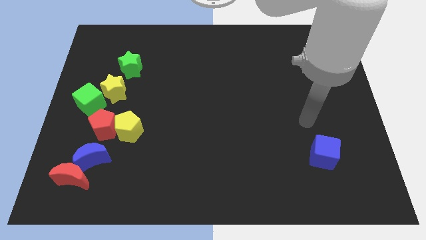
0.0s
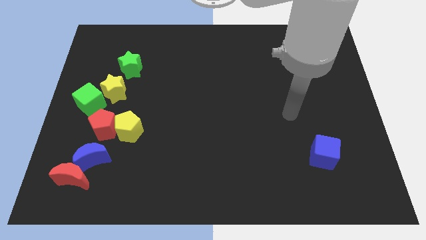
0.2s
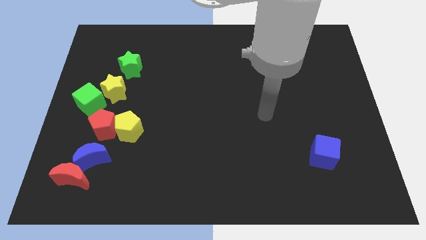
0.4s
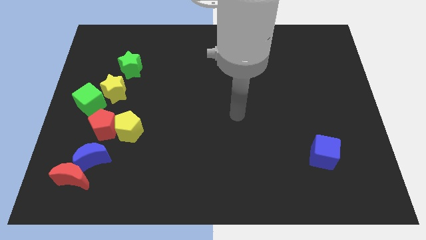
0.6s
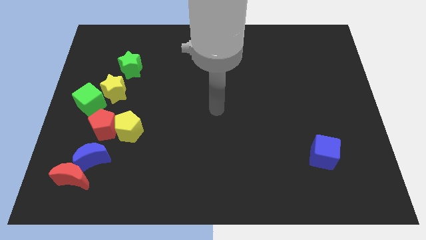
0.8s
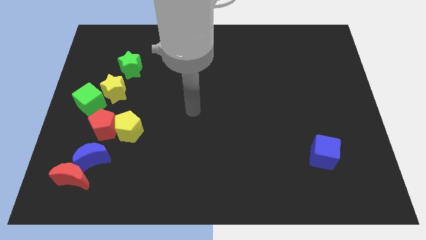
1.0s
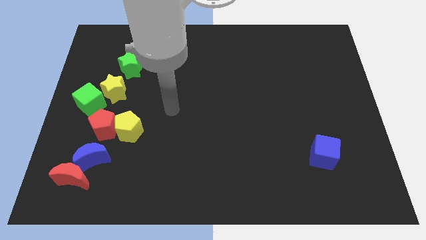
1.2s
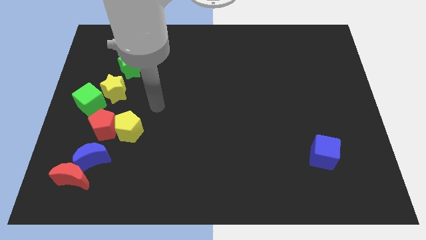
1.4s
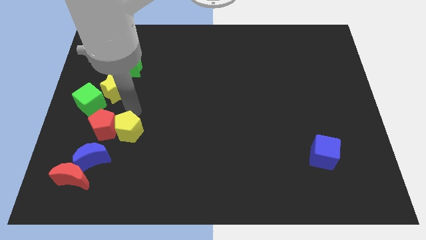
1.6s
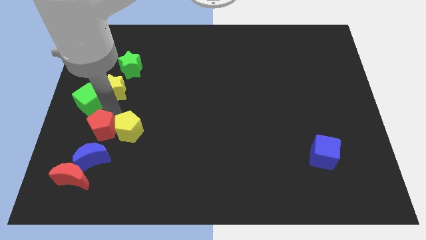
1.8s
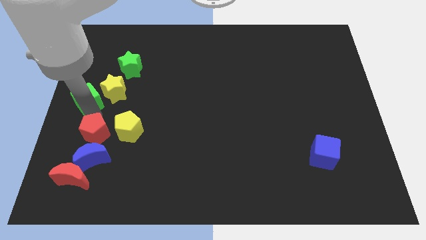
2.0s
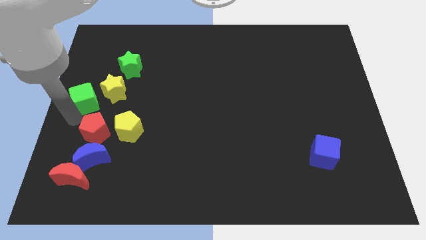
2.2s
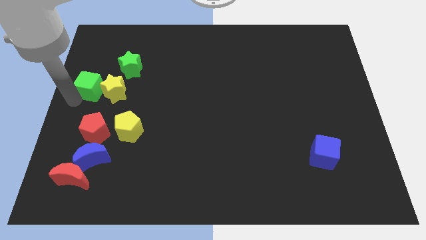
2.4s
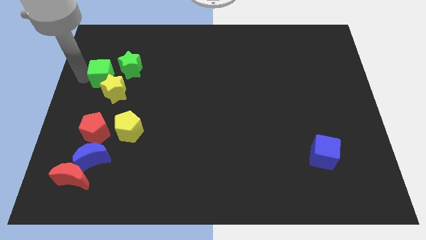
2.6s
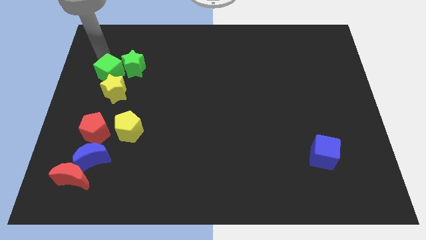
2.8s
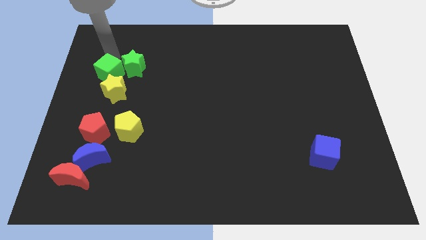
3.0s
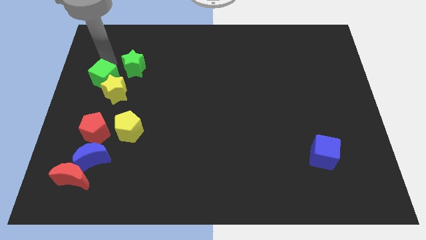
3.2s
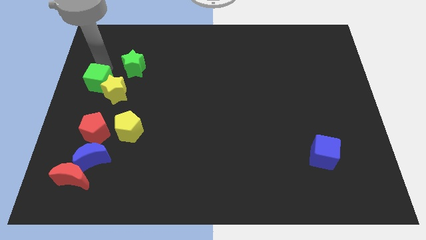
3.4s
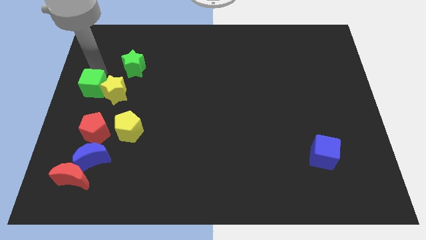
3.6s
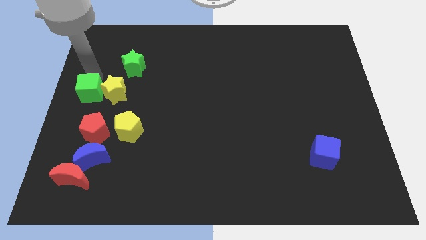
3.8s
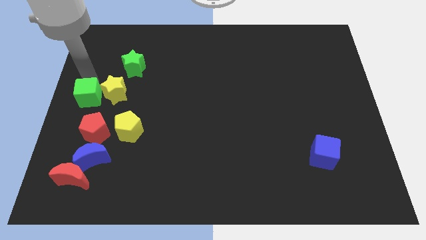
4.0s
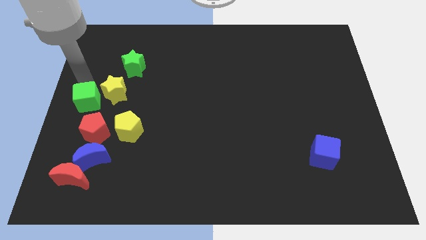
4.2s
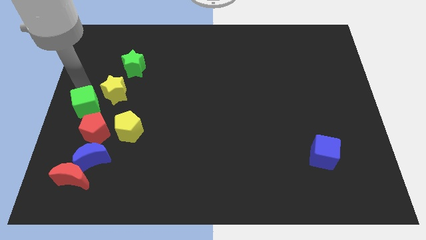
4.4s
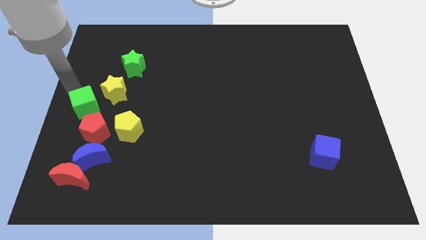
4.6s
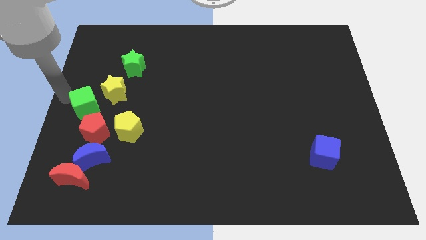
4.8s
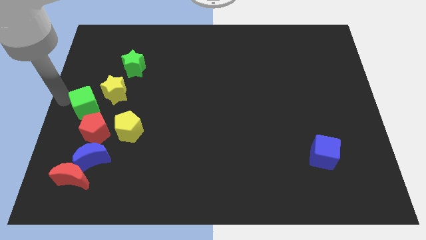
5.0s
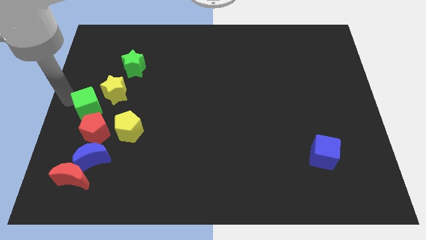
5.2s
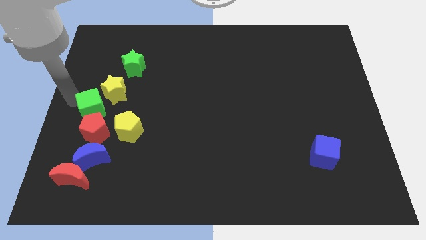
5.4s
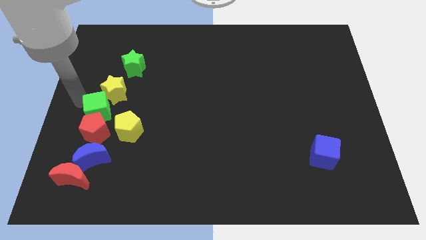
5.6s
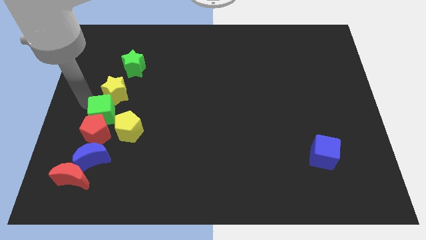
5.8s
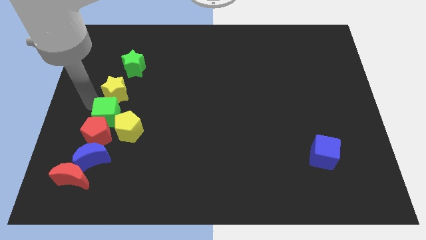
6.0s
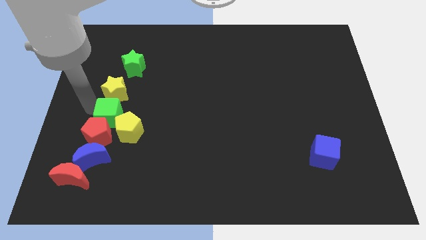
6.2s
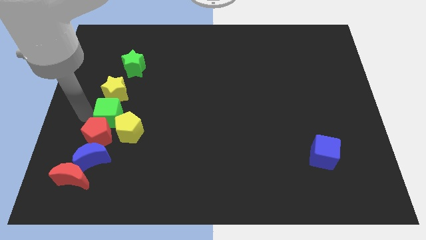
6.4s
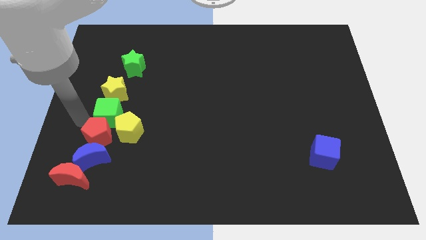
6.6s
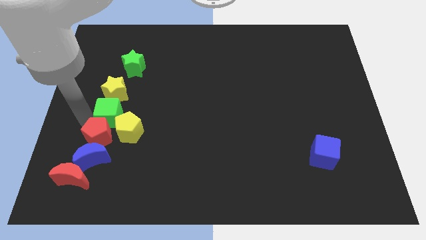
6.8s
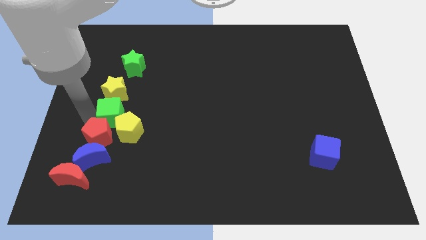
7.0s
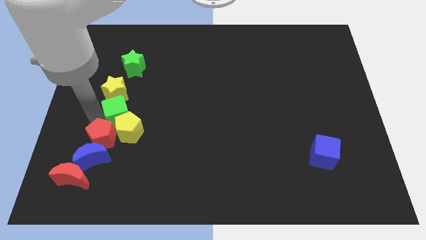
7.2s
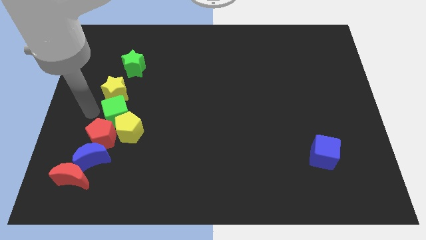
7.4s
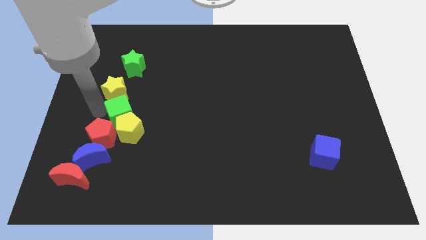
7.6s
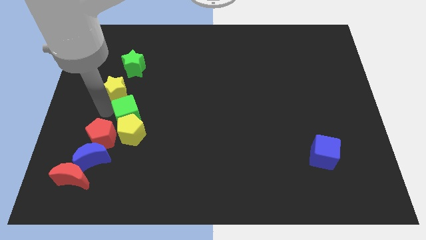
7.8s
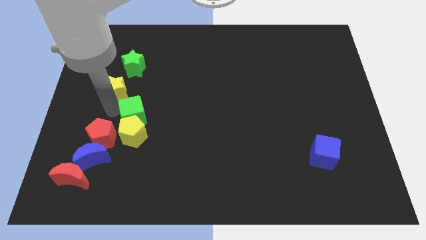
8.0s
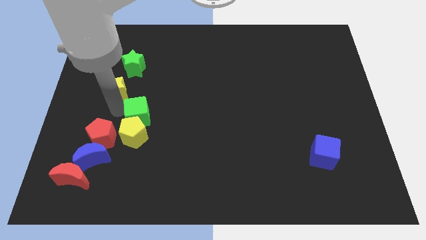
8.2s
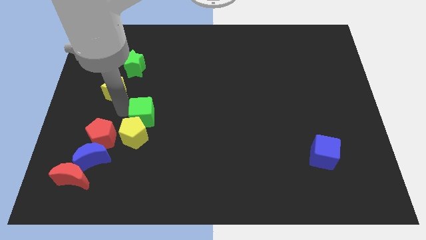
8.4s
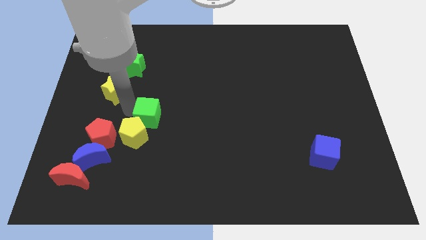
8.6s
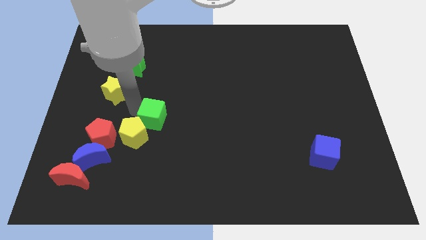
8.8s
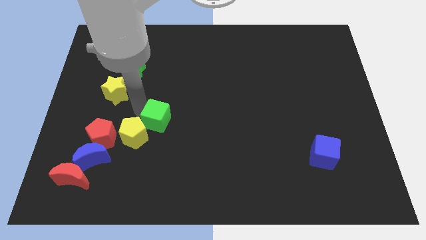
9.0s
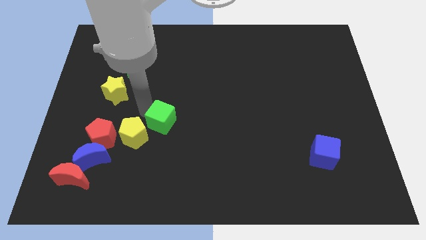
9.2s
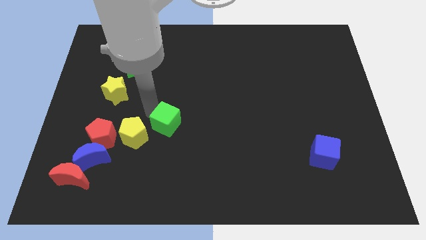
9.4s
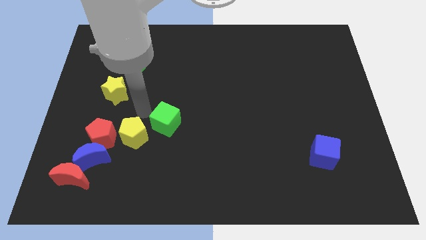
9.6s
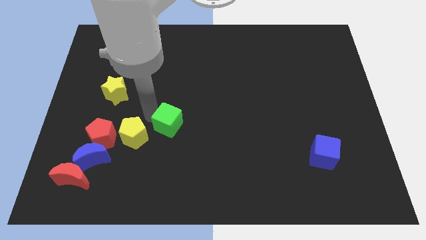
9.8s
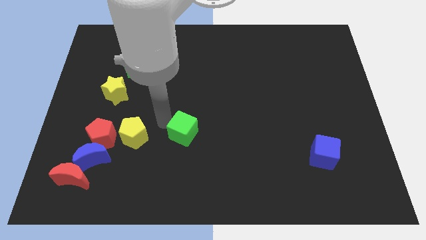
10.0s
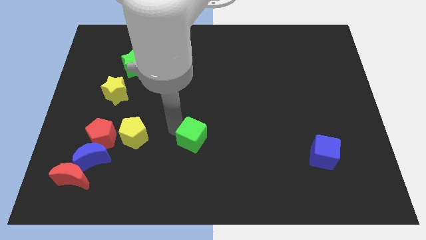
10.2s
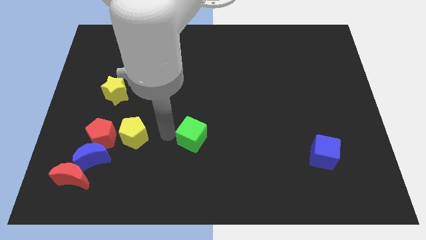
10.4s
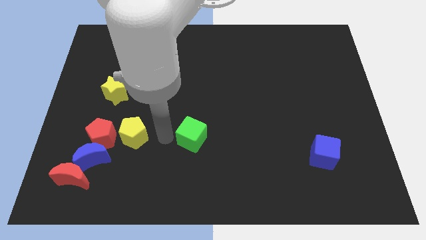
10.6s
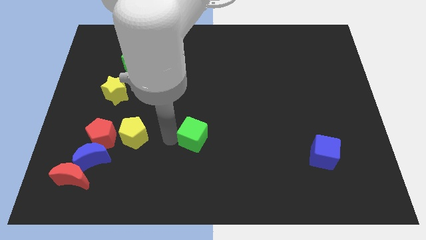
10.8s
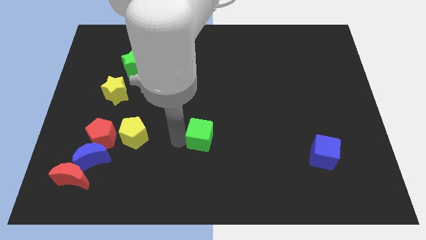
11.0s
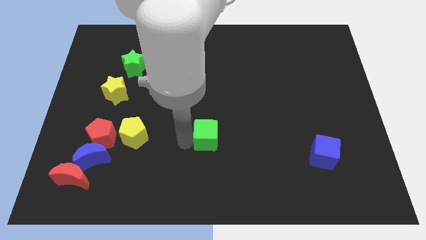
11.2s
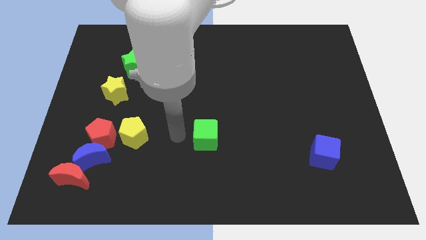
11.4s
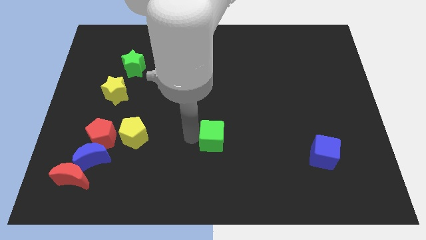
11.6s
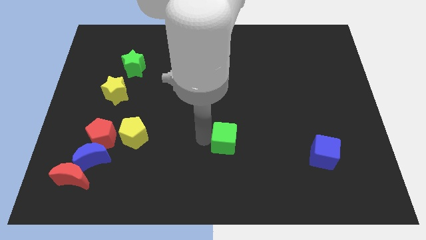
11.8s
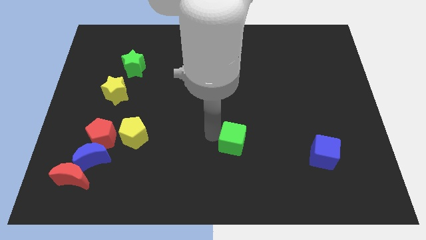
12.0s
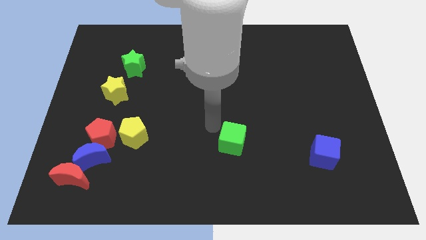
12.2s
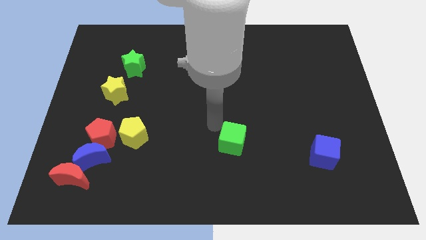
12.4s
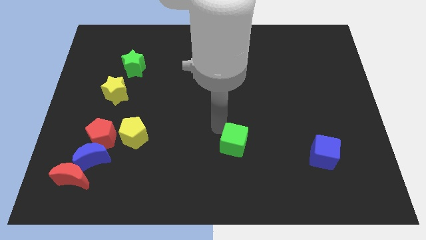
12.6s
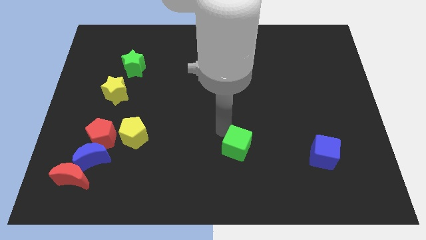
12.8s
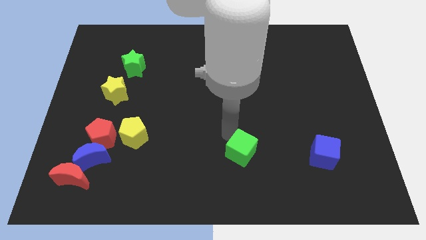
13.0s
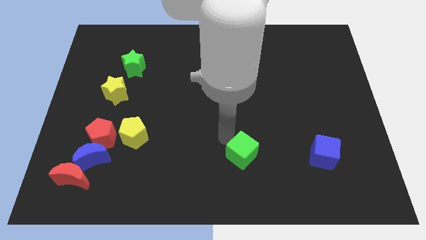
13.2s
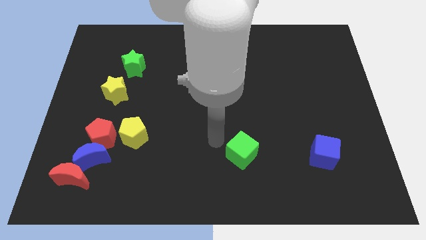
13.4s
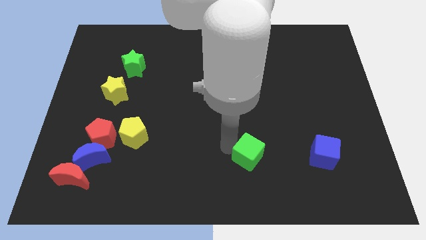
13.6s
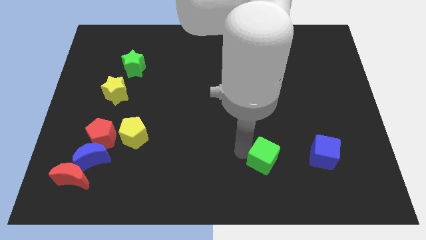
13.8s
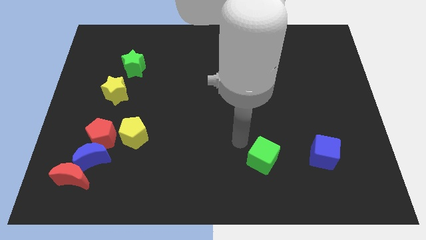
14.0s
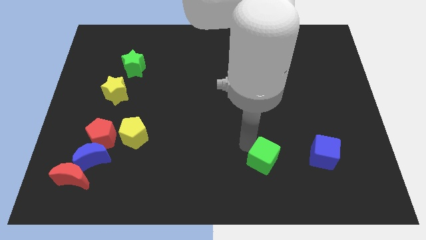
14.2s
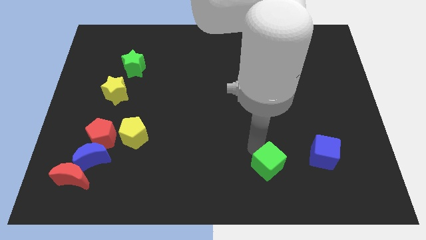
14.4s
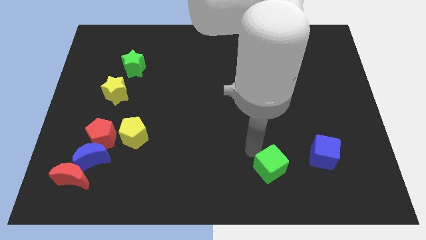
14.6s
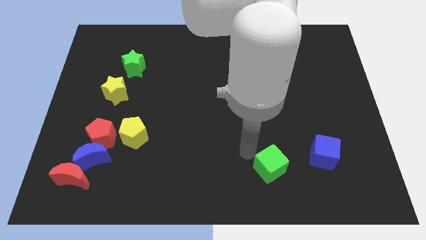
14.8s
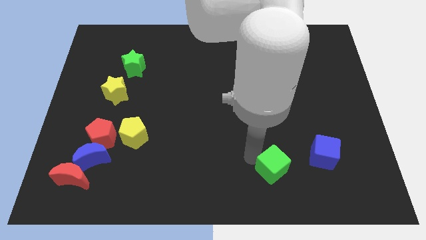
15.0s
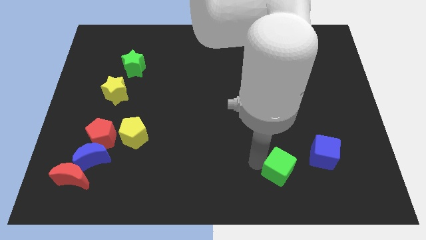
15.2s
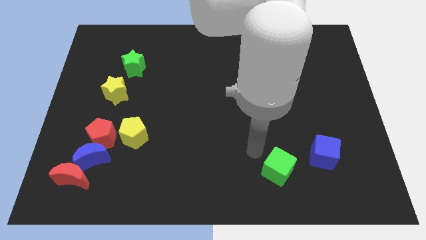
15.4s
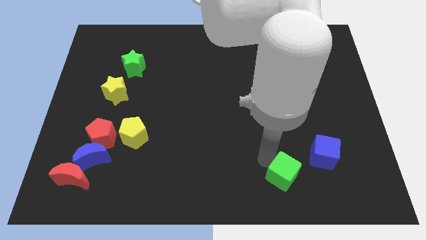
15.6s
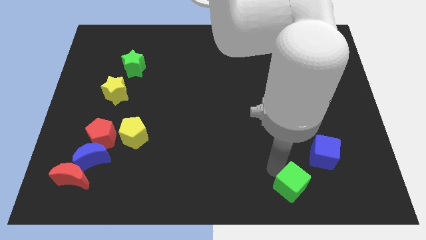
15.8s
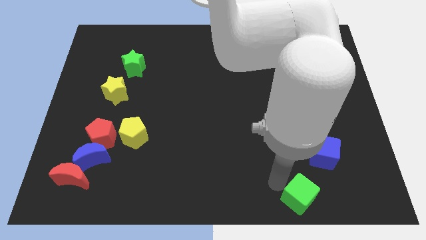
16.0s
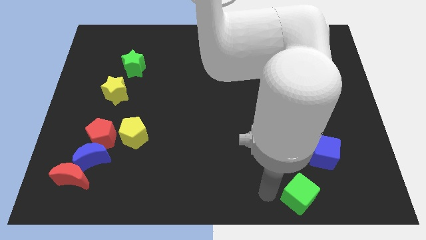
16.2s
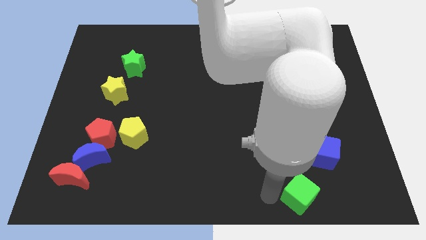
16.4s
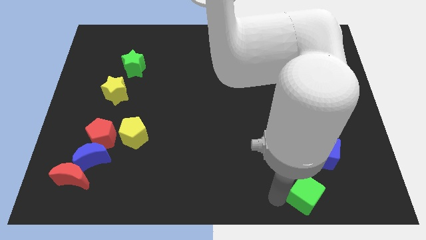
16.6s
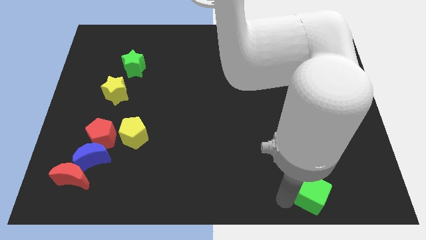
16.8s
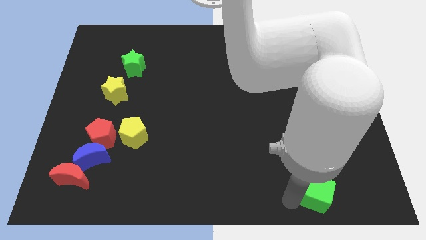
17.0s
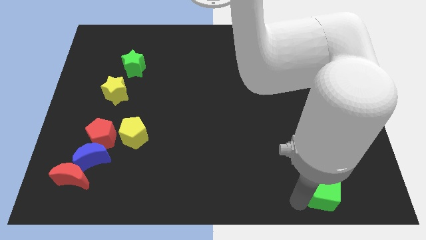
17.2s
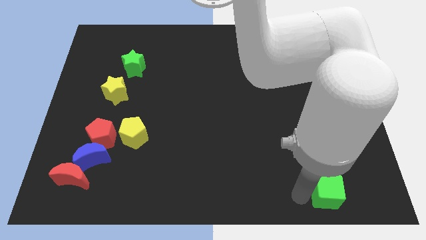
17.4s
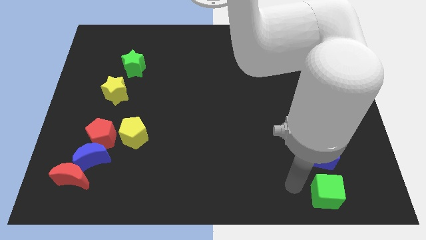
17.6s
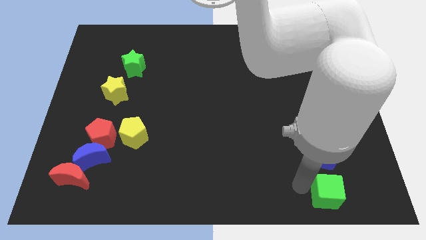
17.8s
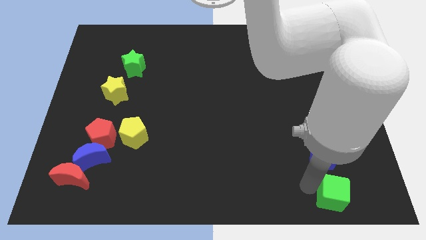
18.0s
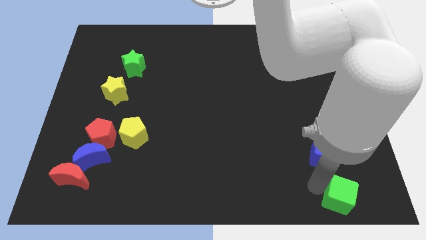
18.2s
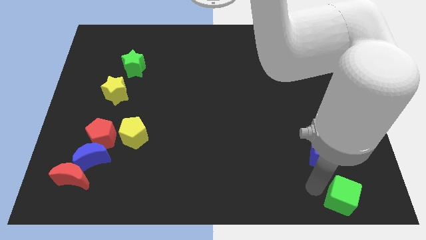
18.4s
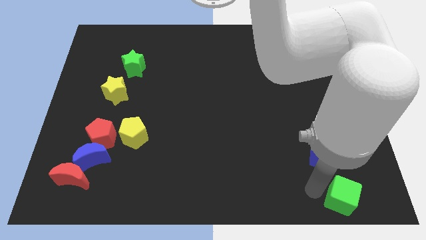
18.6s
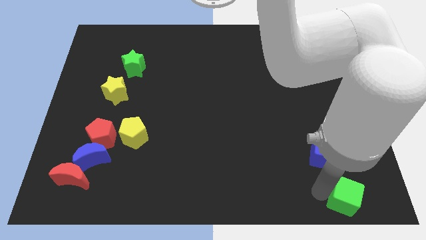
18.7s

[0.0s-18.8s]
move the green cube to the lower right corner
